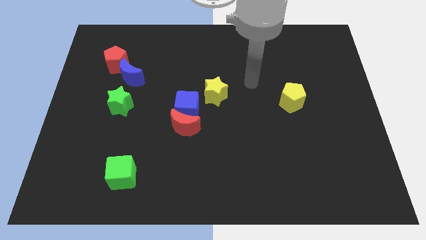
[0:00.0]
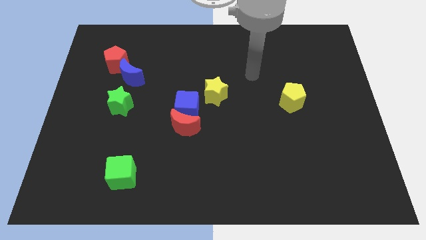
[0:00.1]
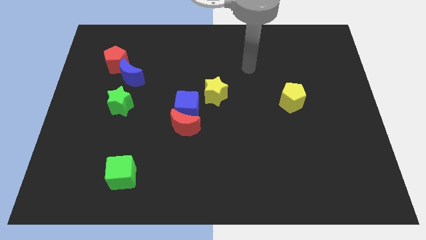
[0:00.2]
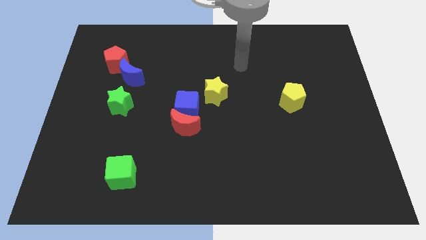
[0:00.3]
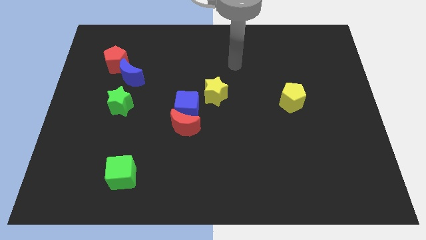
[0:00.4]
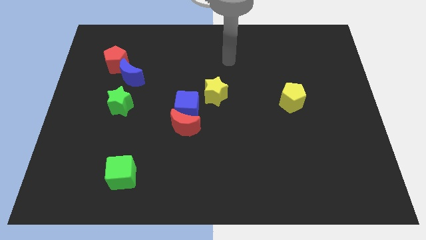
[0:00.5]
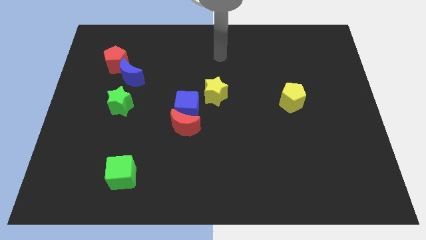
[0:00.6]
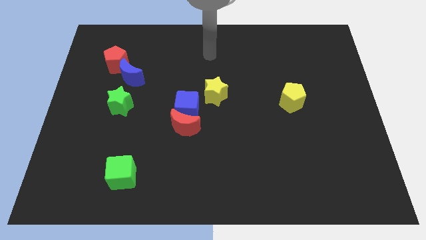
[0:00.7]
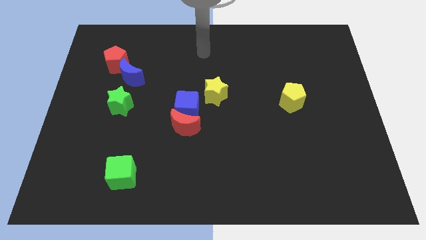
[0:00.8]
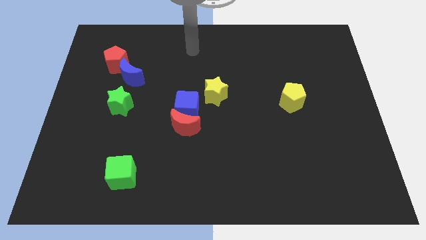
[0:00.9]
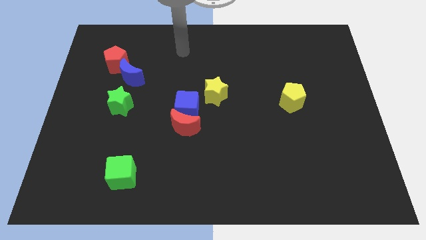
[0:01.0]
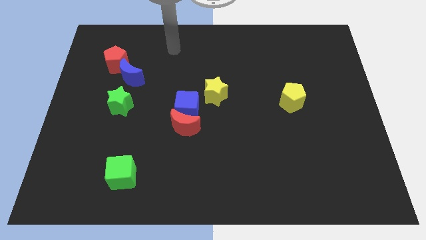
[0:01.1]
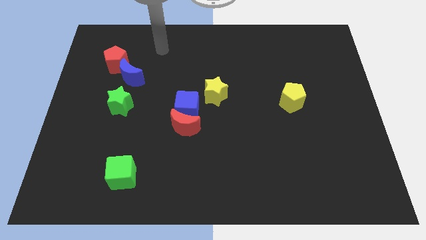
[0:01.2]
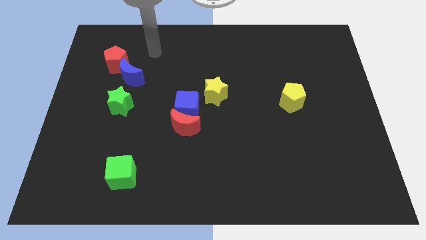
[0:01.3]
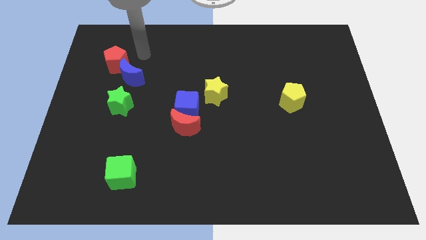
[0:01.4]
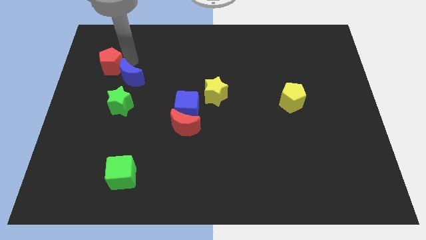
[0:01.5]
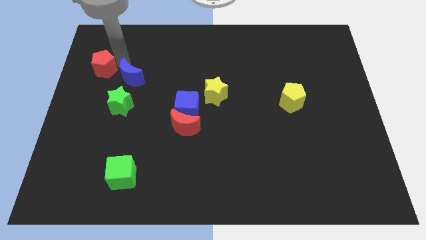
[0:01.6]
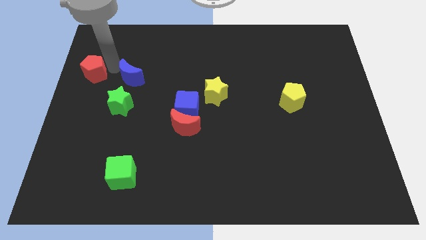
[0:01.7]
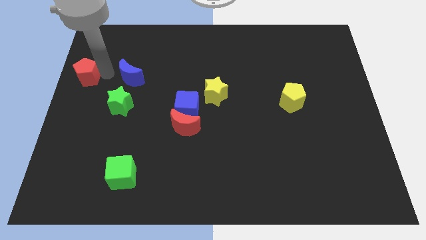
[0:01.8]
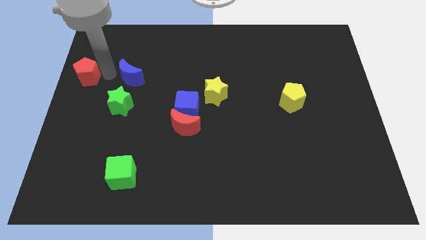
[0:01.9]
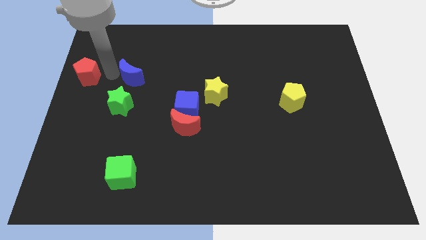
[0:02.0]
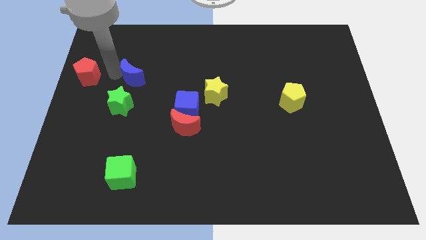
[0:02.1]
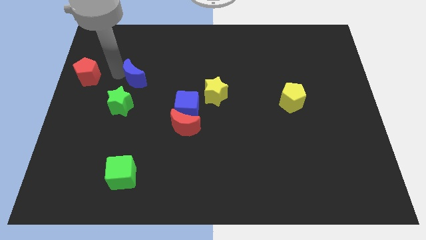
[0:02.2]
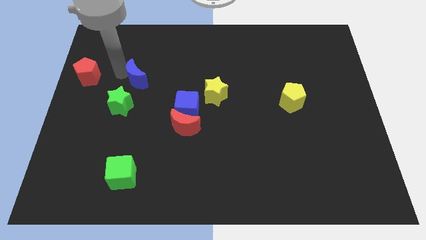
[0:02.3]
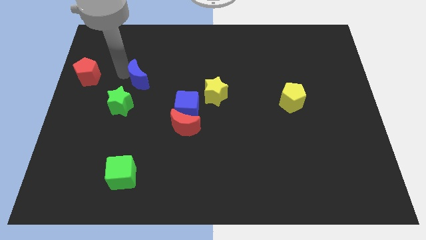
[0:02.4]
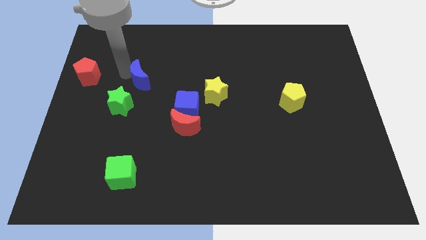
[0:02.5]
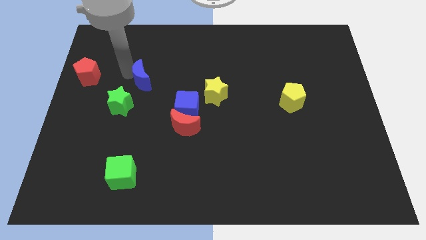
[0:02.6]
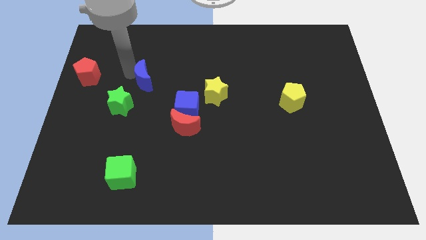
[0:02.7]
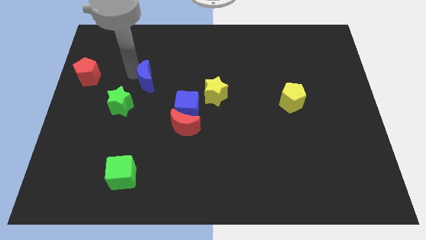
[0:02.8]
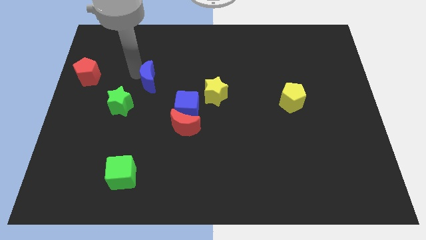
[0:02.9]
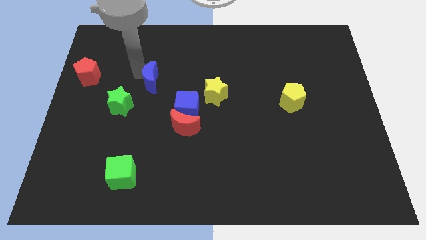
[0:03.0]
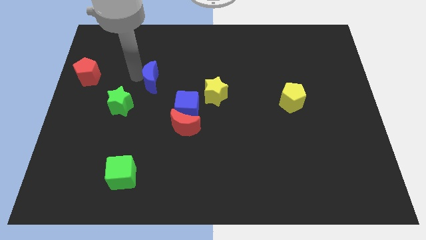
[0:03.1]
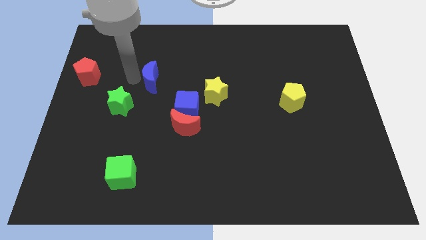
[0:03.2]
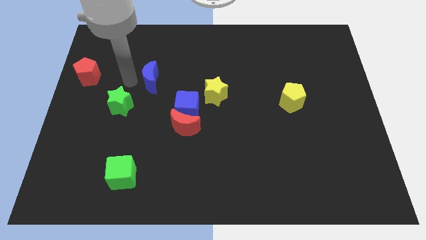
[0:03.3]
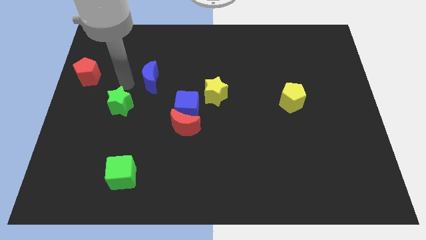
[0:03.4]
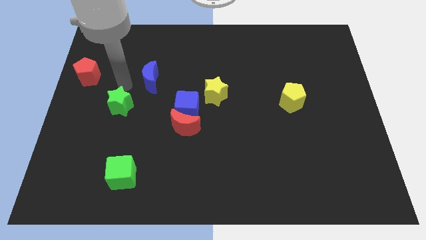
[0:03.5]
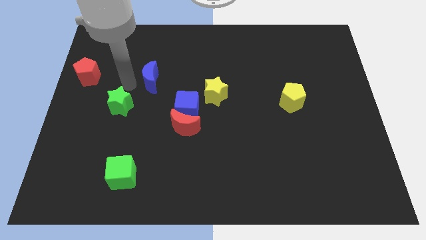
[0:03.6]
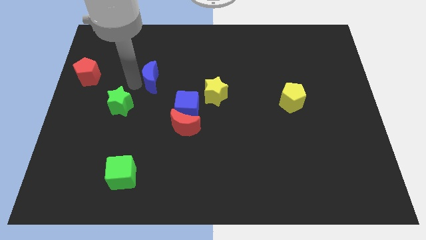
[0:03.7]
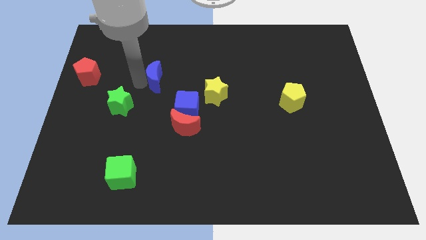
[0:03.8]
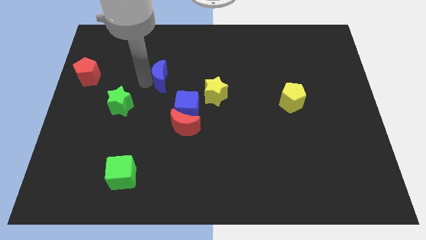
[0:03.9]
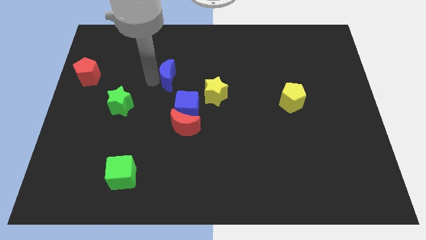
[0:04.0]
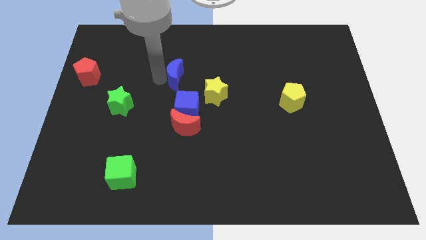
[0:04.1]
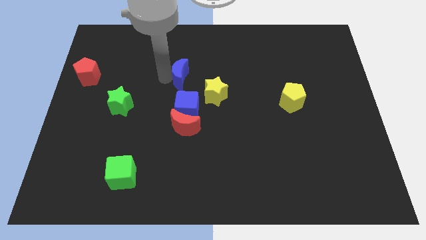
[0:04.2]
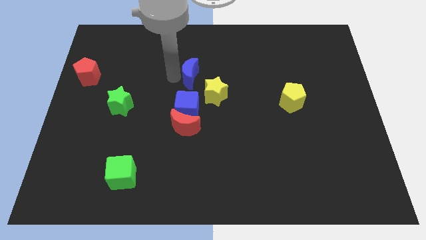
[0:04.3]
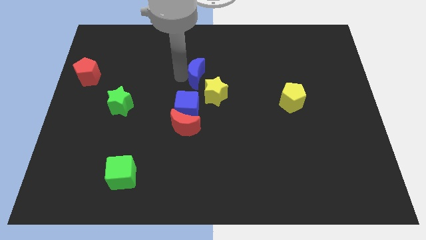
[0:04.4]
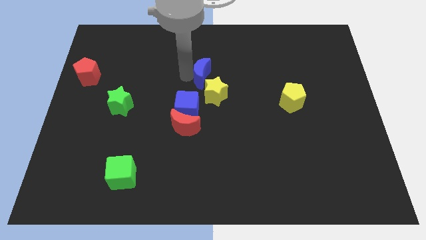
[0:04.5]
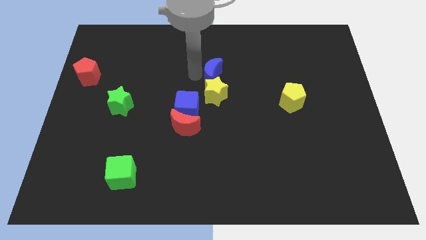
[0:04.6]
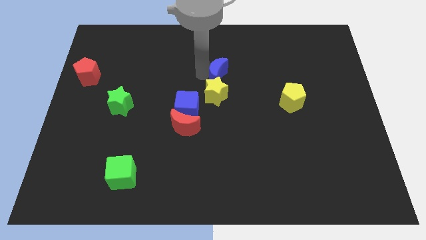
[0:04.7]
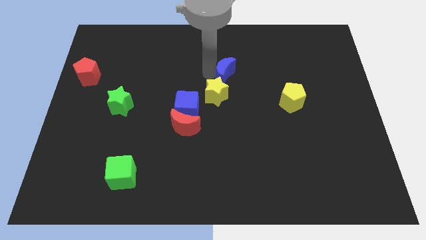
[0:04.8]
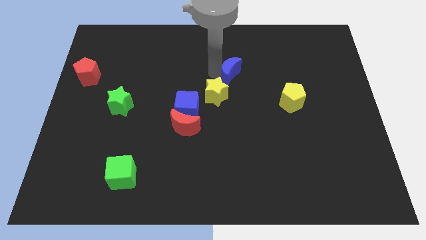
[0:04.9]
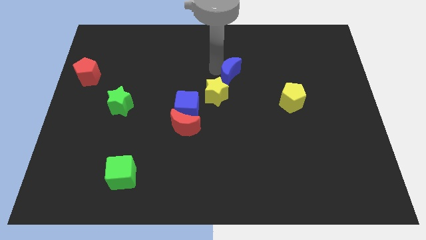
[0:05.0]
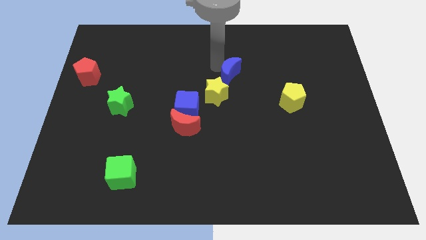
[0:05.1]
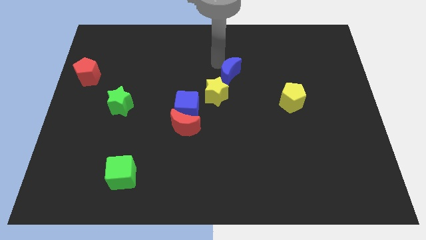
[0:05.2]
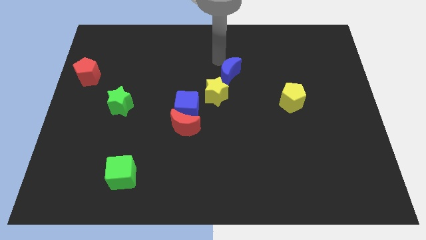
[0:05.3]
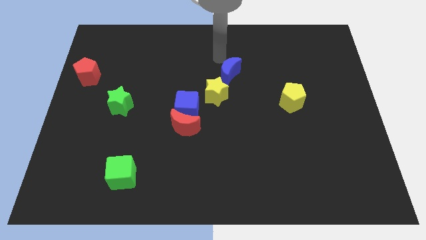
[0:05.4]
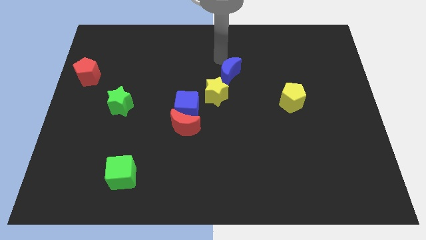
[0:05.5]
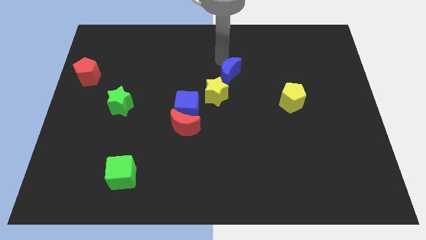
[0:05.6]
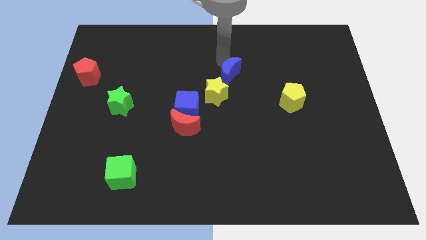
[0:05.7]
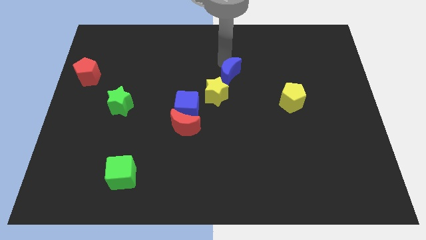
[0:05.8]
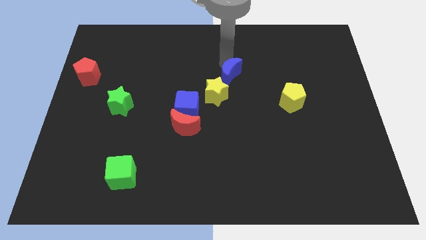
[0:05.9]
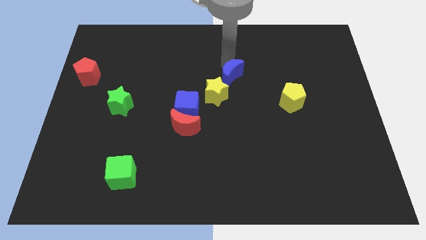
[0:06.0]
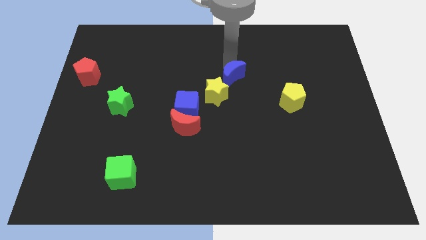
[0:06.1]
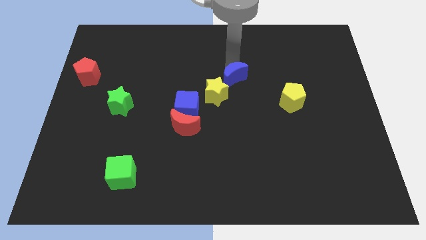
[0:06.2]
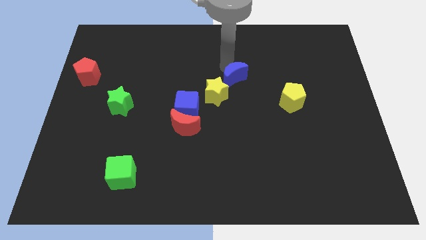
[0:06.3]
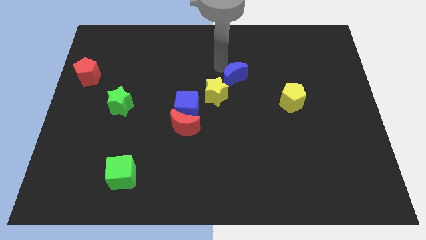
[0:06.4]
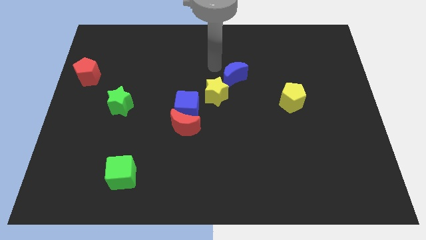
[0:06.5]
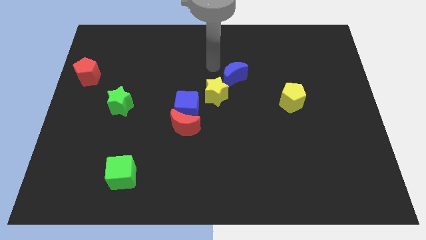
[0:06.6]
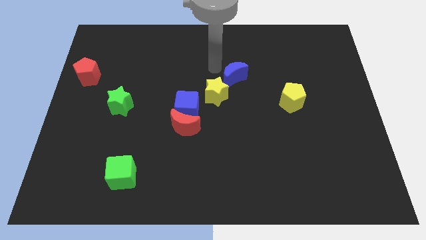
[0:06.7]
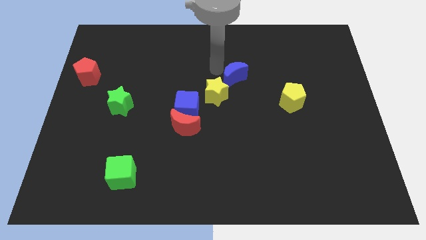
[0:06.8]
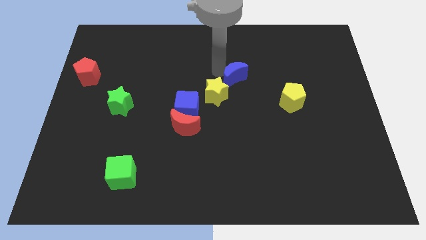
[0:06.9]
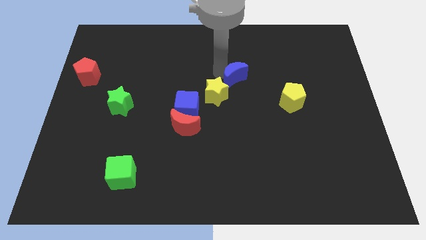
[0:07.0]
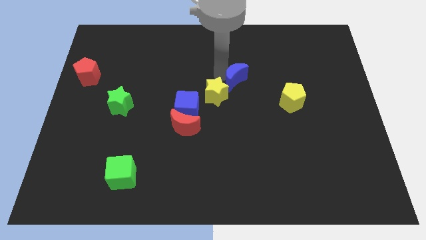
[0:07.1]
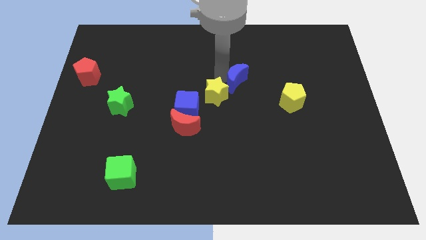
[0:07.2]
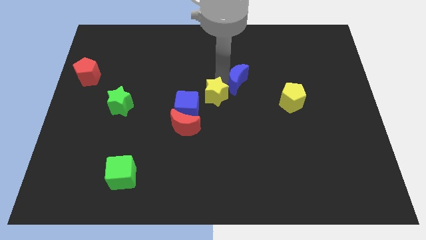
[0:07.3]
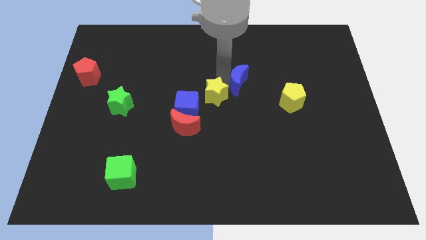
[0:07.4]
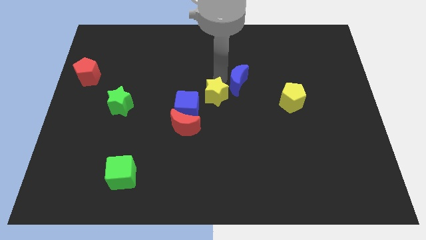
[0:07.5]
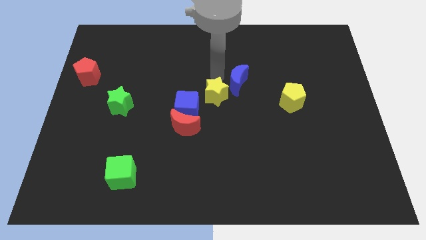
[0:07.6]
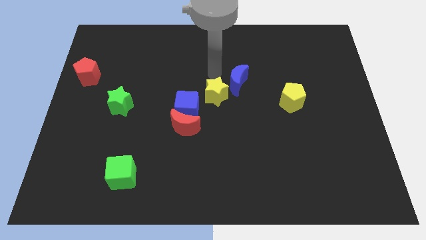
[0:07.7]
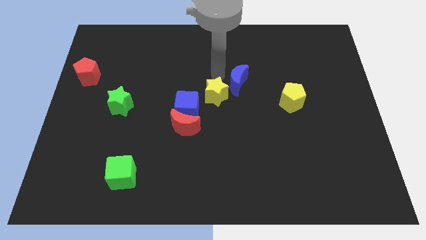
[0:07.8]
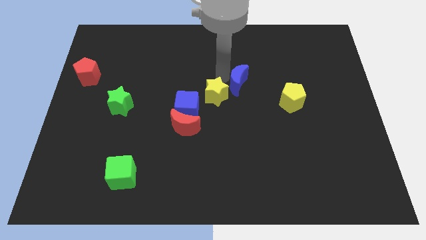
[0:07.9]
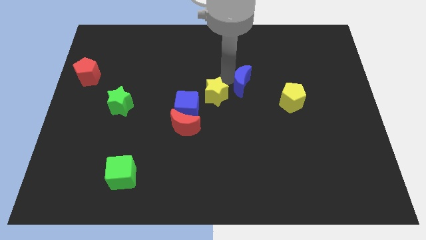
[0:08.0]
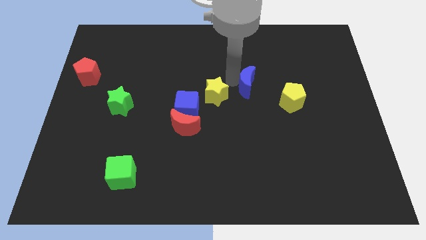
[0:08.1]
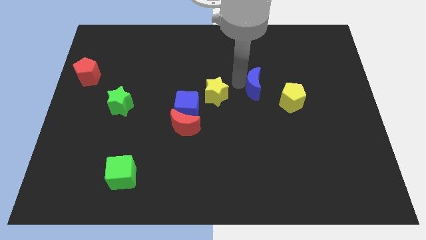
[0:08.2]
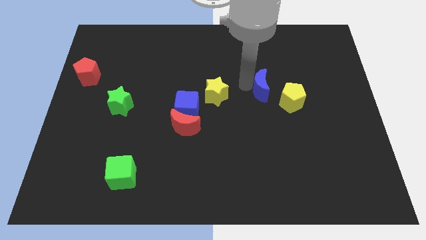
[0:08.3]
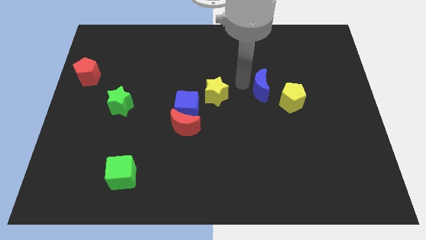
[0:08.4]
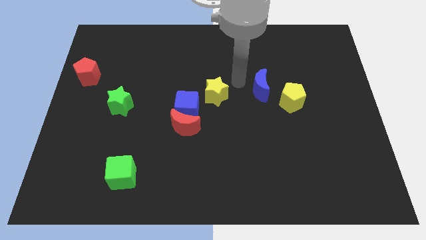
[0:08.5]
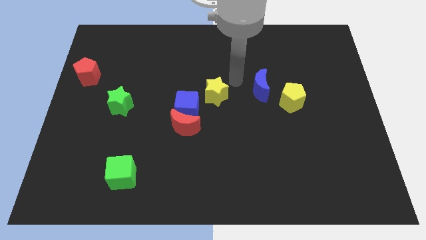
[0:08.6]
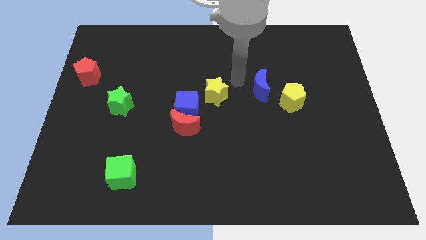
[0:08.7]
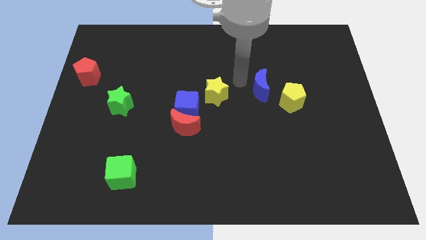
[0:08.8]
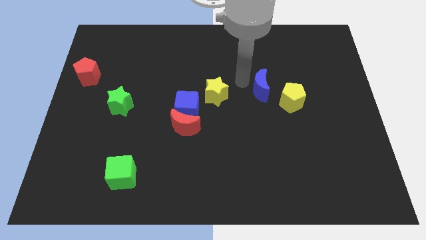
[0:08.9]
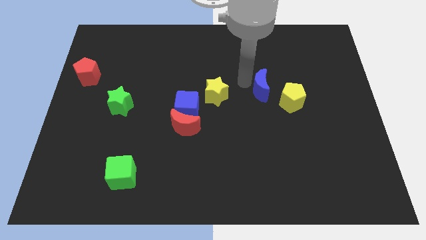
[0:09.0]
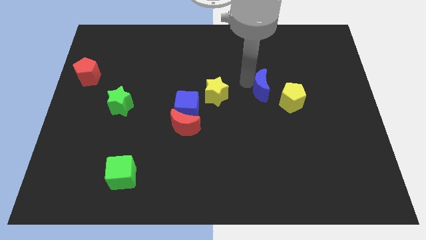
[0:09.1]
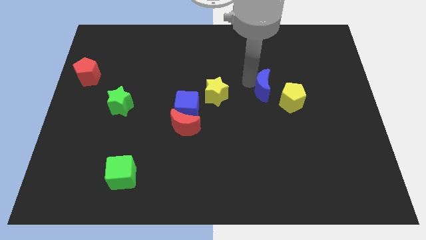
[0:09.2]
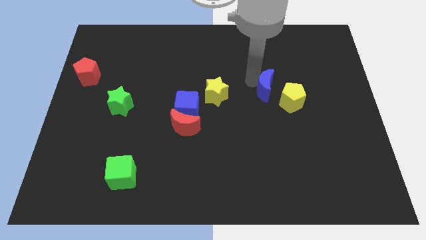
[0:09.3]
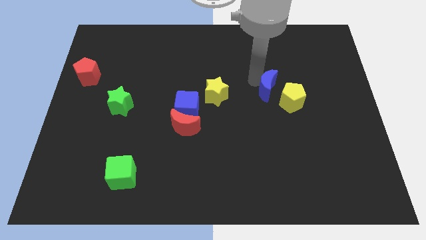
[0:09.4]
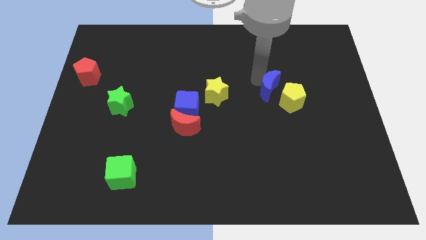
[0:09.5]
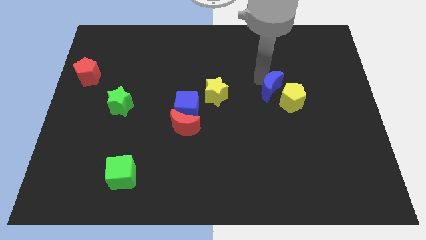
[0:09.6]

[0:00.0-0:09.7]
slide the blue moon to the yellow pentagon
